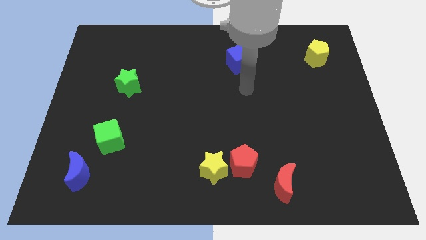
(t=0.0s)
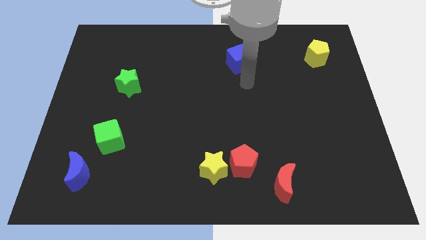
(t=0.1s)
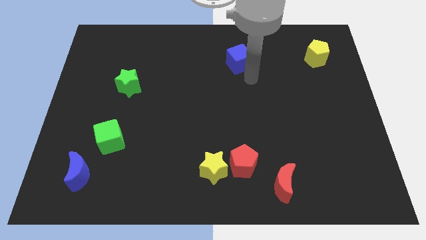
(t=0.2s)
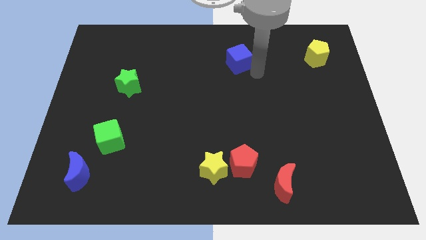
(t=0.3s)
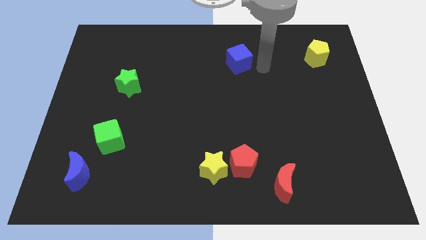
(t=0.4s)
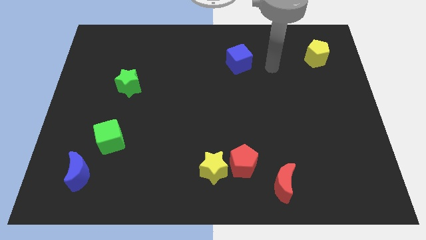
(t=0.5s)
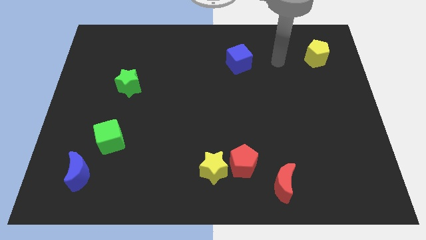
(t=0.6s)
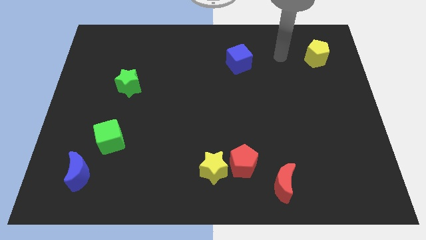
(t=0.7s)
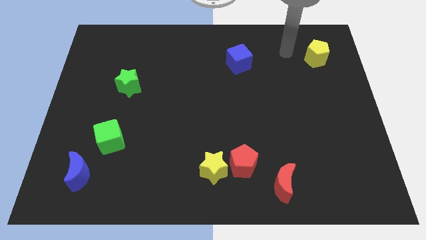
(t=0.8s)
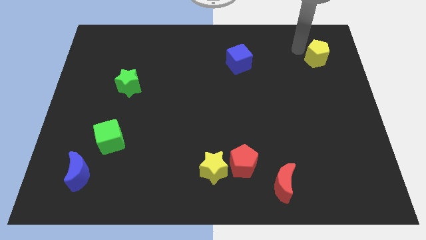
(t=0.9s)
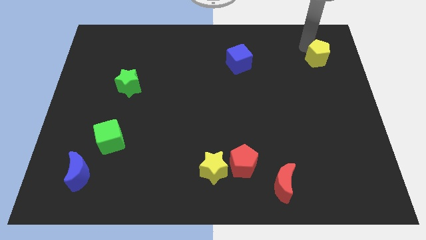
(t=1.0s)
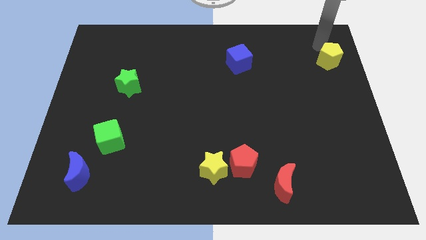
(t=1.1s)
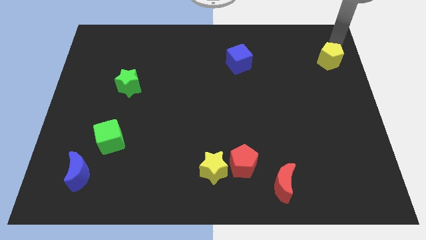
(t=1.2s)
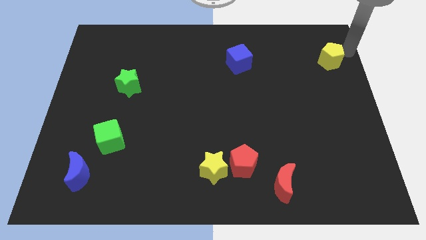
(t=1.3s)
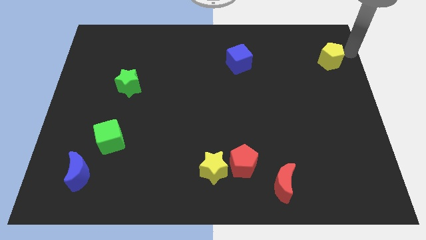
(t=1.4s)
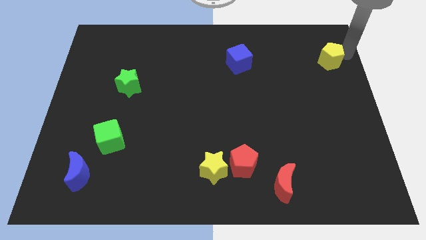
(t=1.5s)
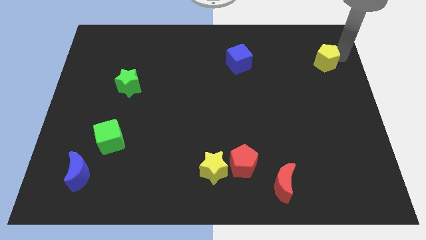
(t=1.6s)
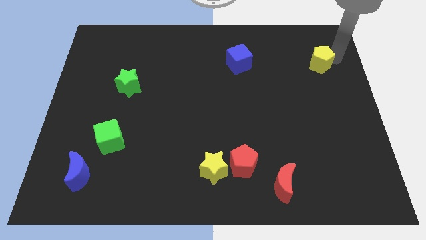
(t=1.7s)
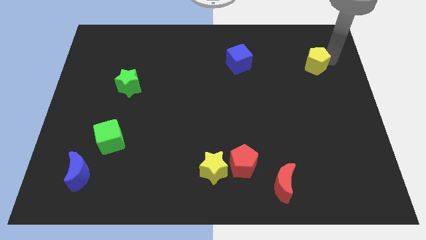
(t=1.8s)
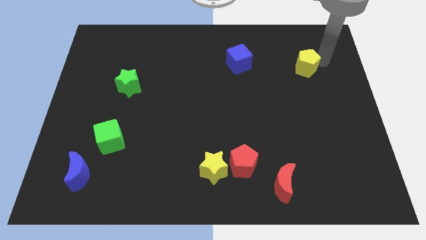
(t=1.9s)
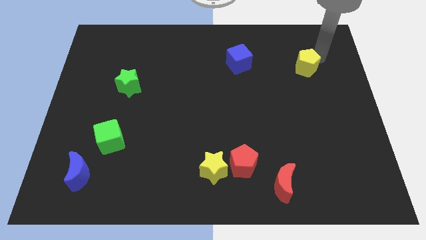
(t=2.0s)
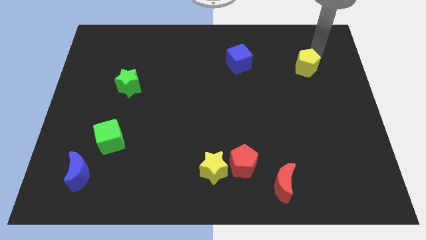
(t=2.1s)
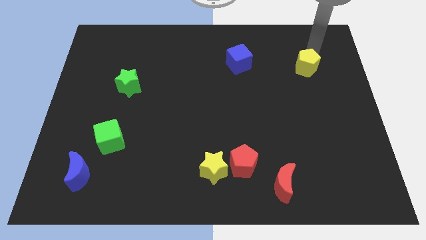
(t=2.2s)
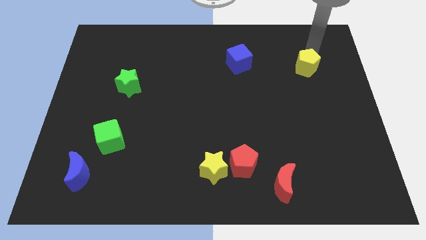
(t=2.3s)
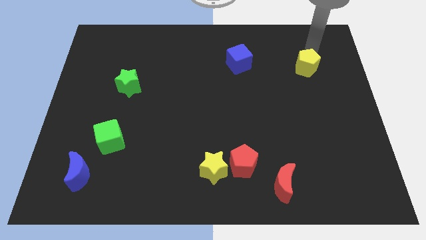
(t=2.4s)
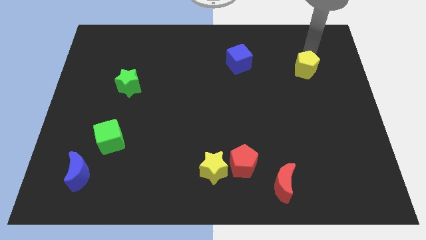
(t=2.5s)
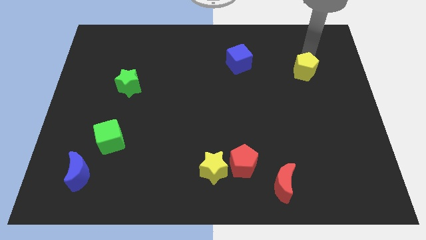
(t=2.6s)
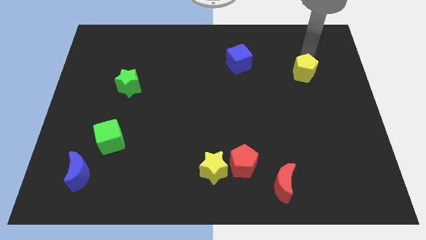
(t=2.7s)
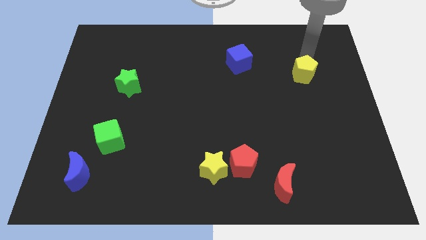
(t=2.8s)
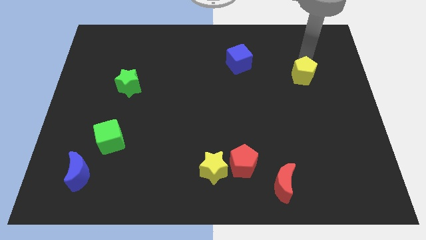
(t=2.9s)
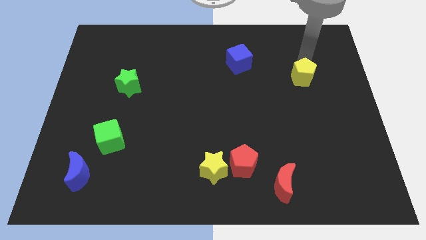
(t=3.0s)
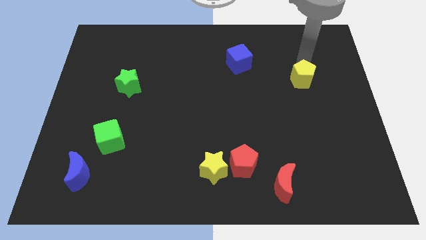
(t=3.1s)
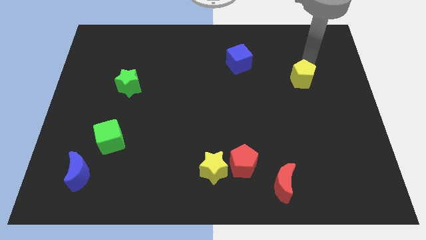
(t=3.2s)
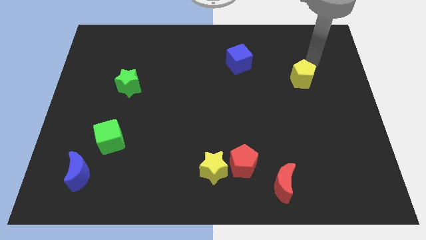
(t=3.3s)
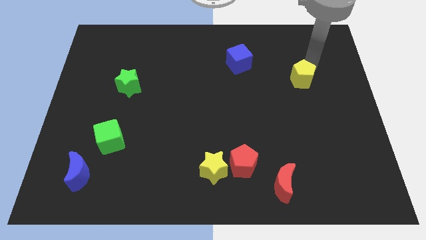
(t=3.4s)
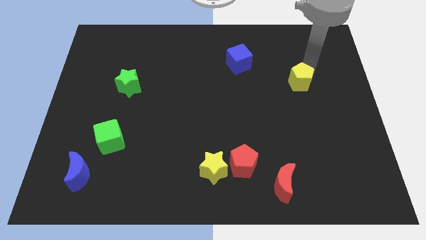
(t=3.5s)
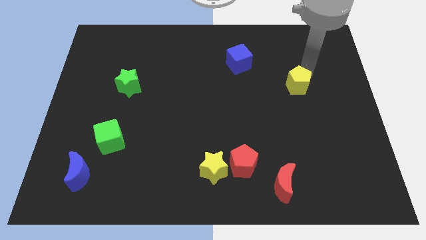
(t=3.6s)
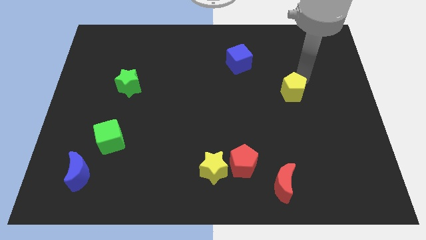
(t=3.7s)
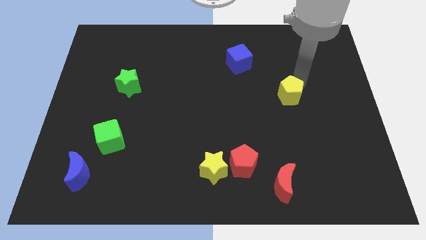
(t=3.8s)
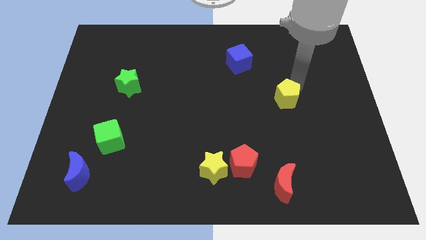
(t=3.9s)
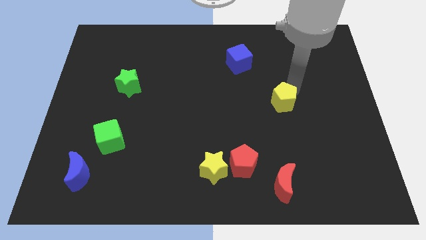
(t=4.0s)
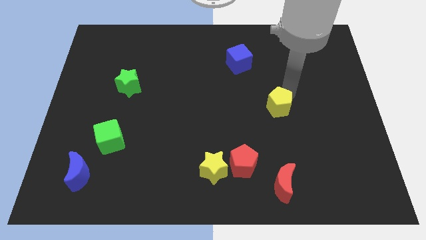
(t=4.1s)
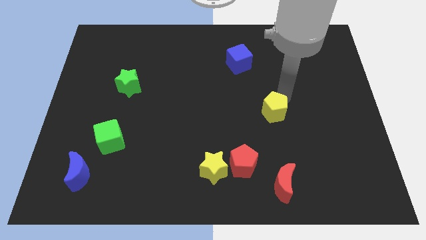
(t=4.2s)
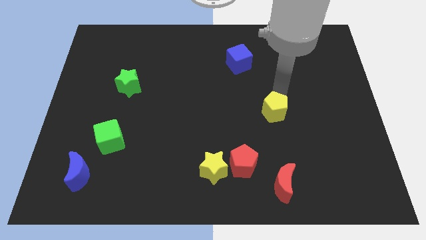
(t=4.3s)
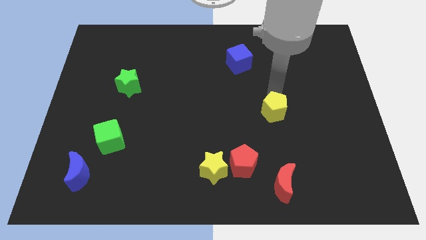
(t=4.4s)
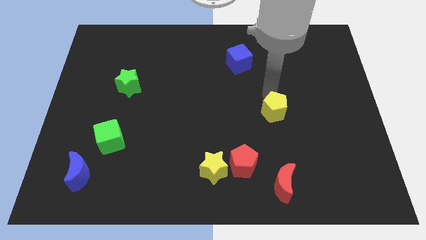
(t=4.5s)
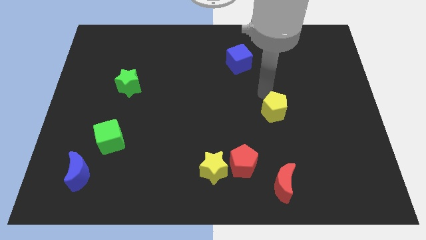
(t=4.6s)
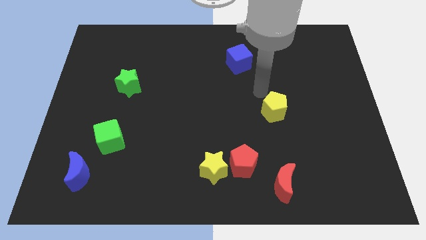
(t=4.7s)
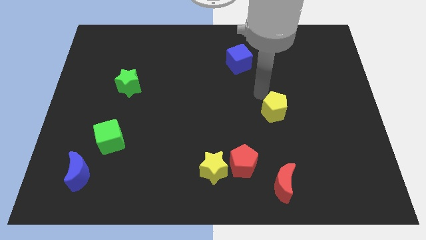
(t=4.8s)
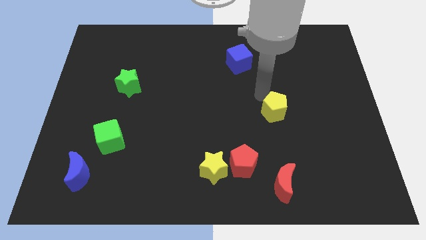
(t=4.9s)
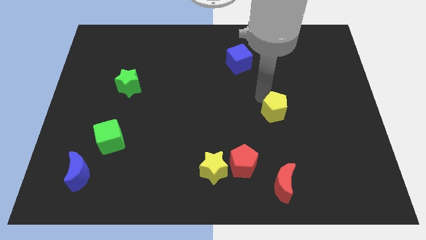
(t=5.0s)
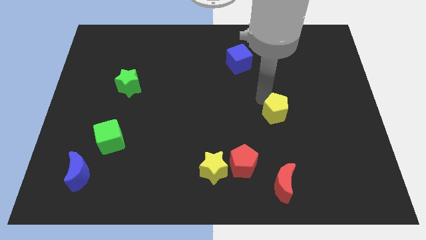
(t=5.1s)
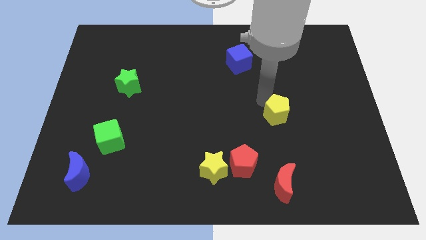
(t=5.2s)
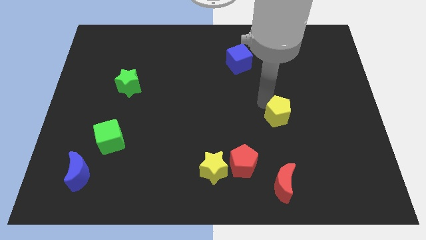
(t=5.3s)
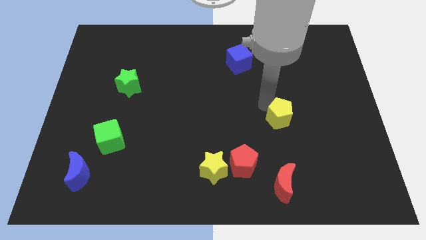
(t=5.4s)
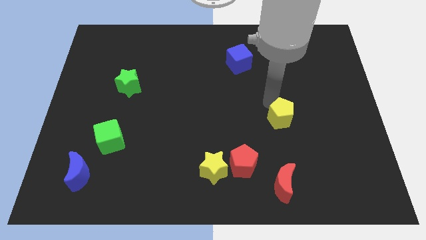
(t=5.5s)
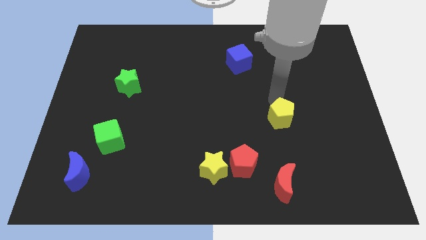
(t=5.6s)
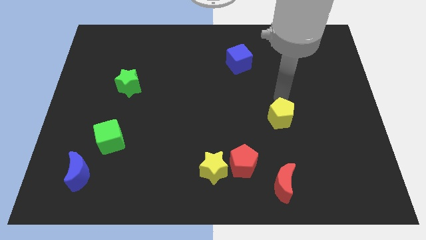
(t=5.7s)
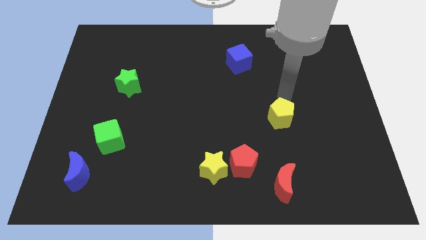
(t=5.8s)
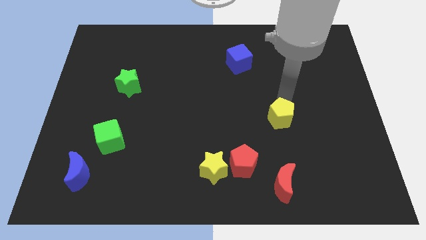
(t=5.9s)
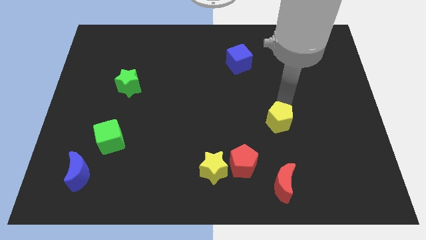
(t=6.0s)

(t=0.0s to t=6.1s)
move the yellow pentagon to the top of the red moon
